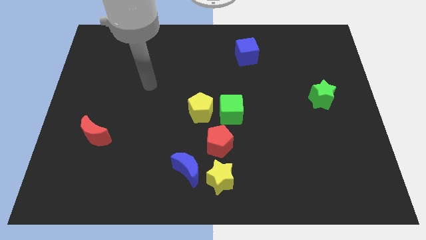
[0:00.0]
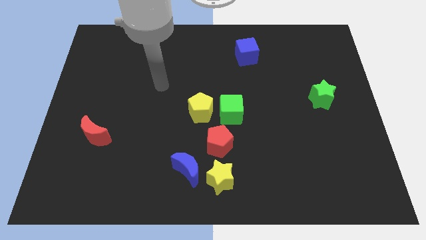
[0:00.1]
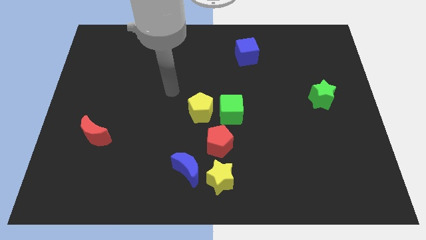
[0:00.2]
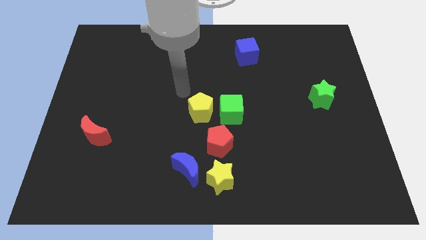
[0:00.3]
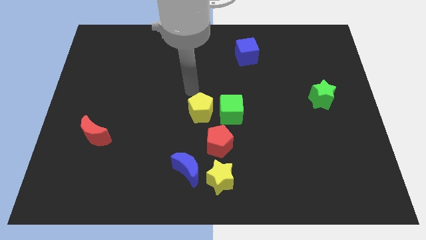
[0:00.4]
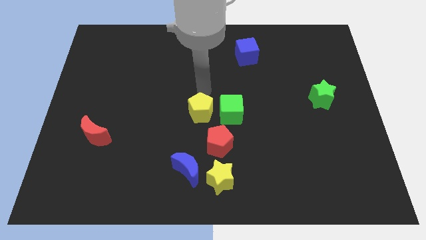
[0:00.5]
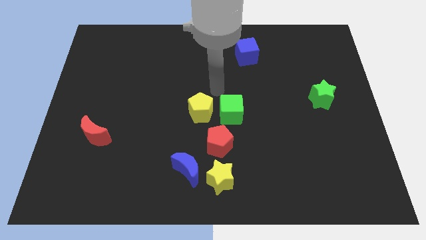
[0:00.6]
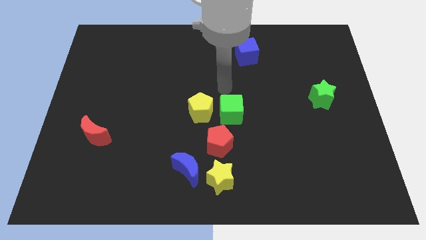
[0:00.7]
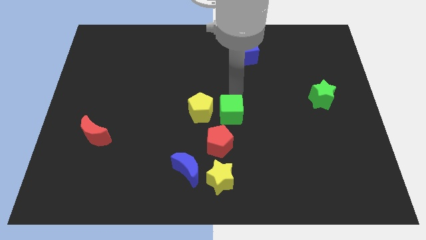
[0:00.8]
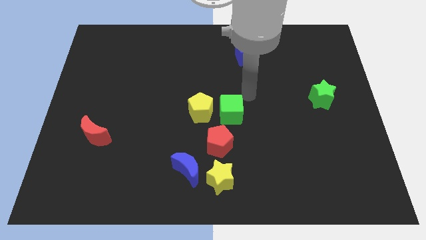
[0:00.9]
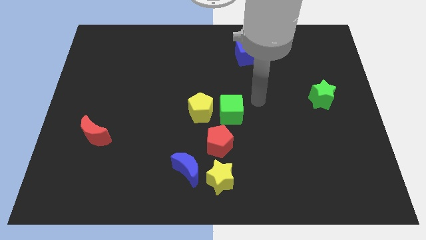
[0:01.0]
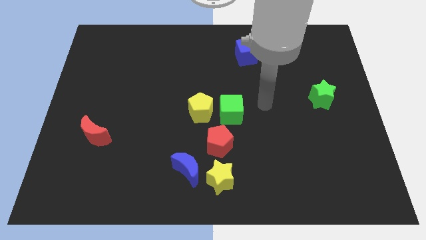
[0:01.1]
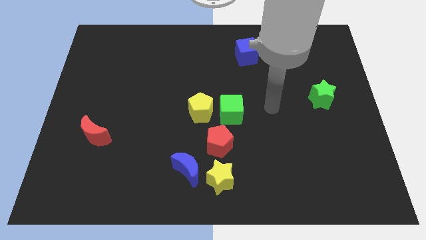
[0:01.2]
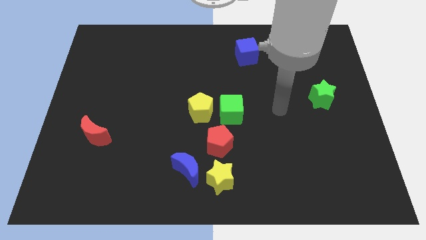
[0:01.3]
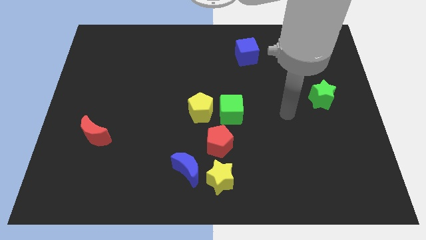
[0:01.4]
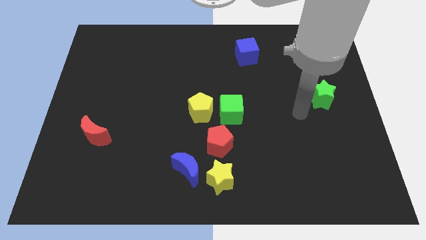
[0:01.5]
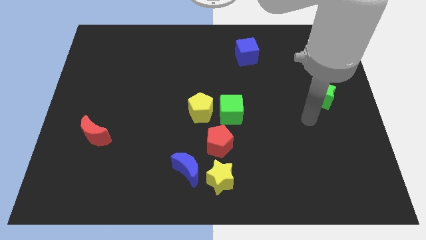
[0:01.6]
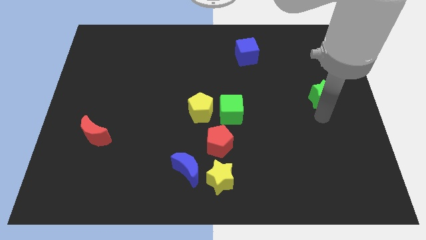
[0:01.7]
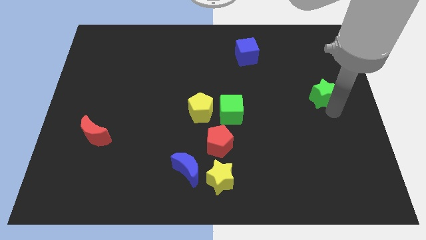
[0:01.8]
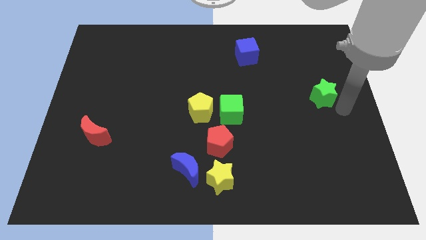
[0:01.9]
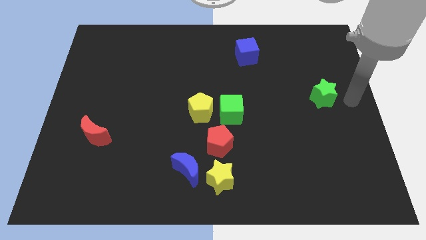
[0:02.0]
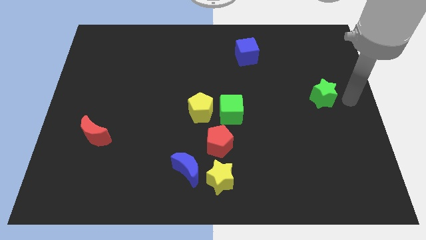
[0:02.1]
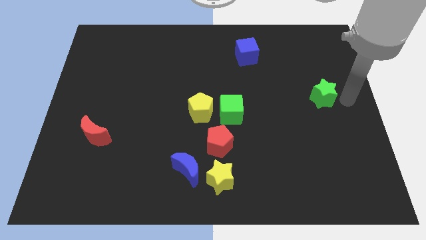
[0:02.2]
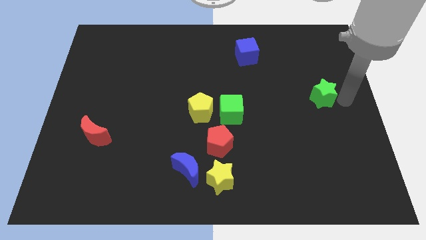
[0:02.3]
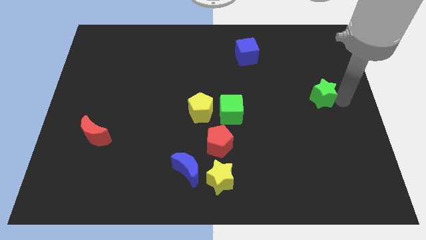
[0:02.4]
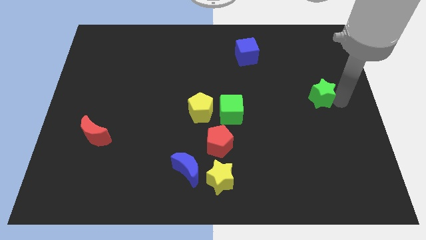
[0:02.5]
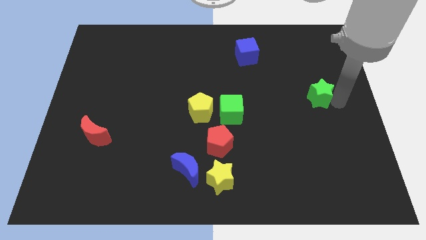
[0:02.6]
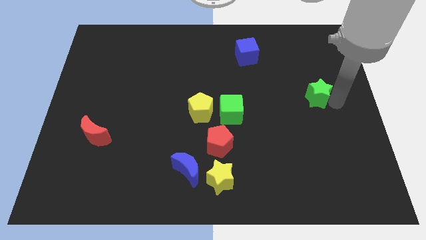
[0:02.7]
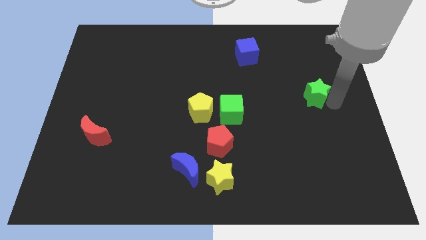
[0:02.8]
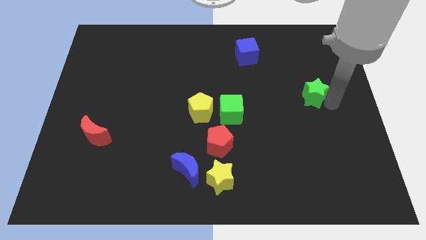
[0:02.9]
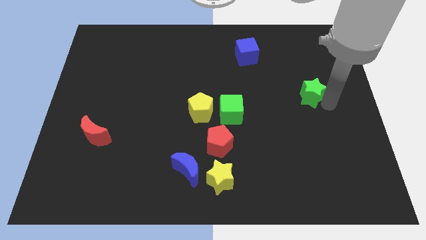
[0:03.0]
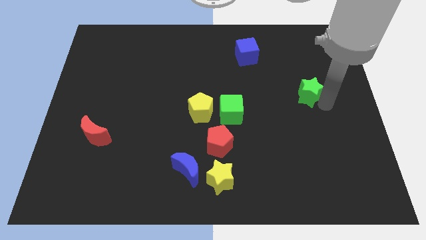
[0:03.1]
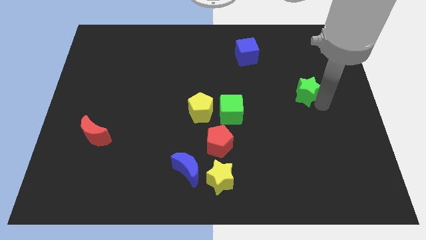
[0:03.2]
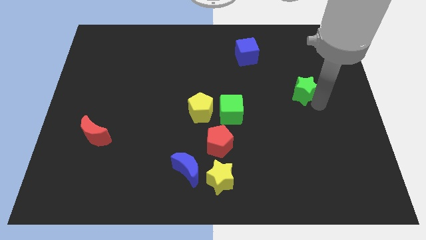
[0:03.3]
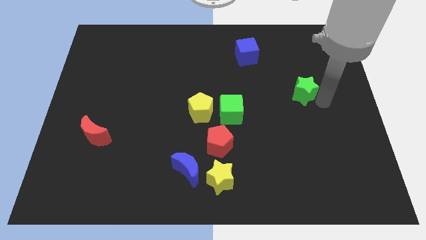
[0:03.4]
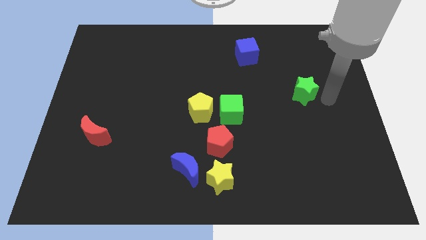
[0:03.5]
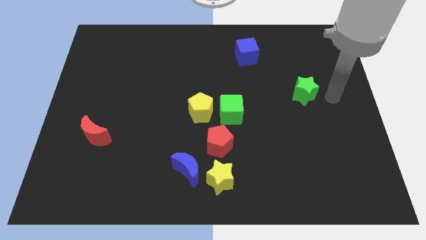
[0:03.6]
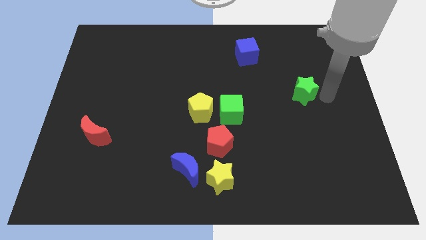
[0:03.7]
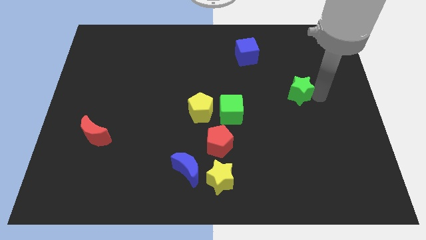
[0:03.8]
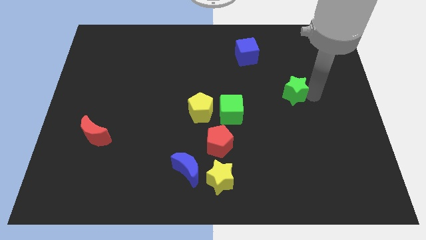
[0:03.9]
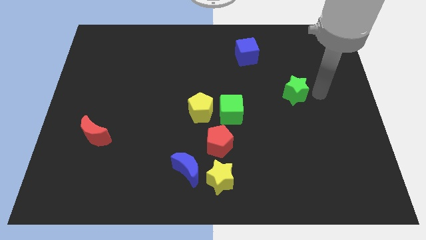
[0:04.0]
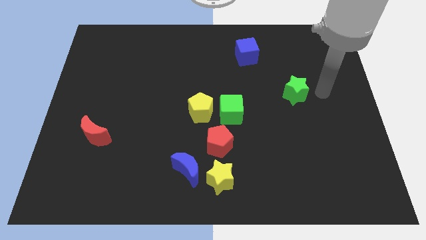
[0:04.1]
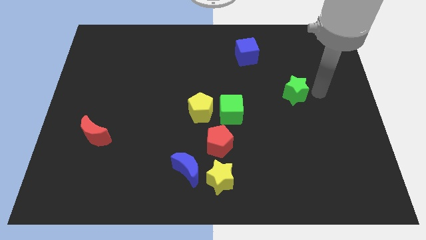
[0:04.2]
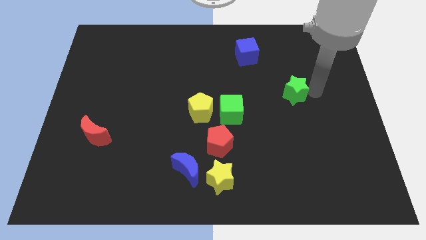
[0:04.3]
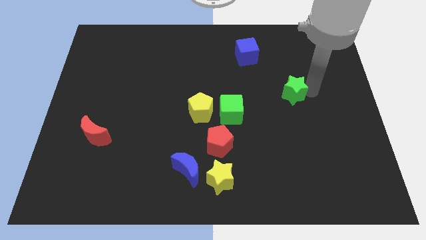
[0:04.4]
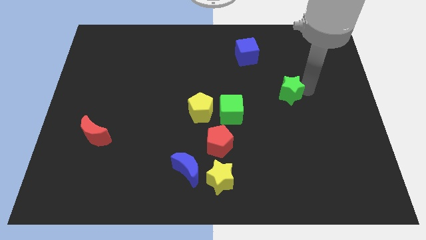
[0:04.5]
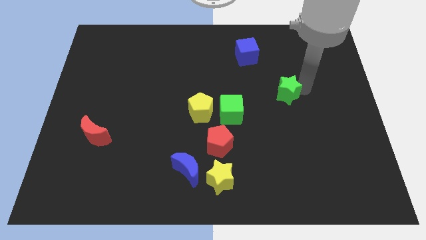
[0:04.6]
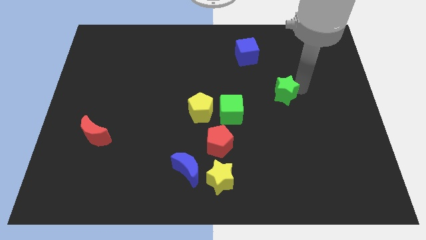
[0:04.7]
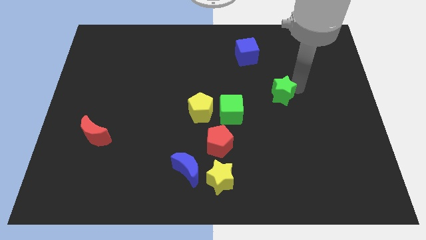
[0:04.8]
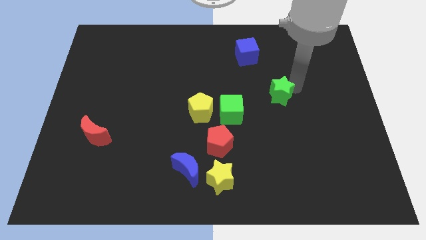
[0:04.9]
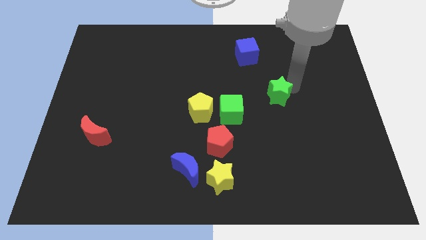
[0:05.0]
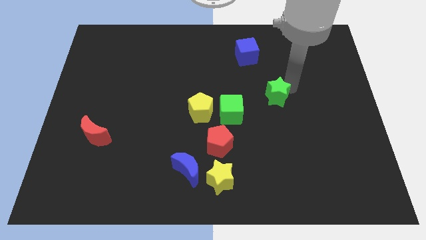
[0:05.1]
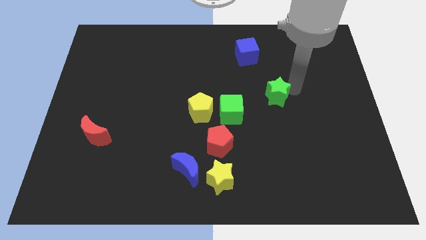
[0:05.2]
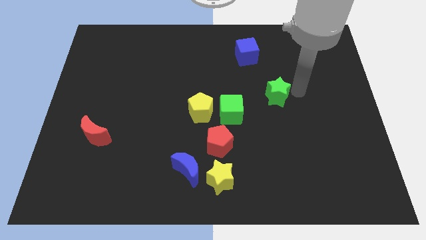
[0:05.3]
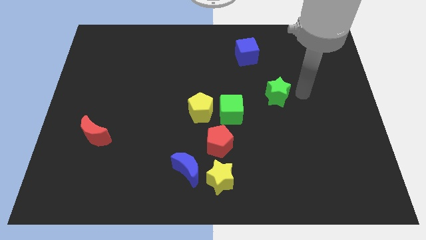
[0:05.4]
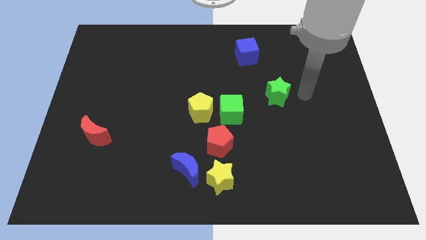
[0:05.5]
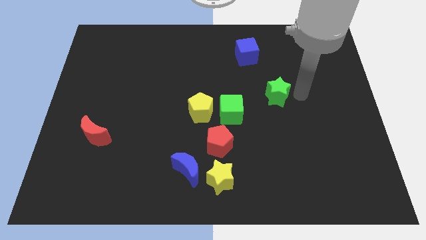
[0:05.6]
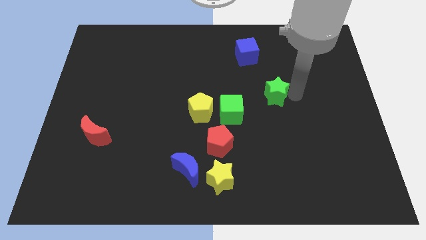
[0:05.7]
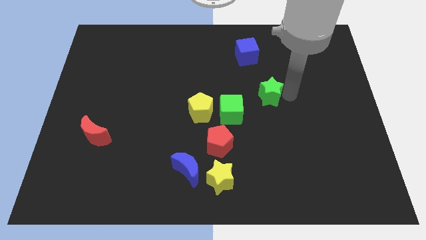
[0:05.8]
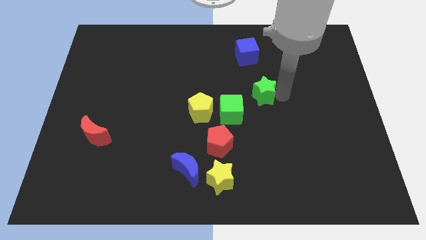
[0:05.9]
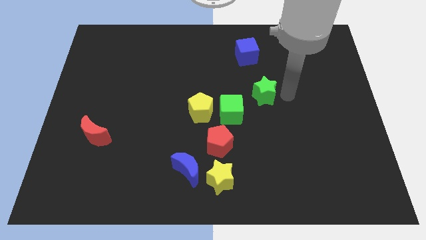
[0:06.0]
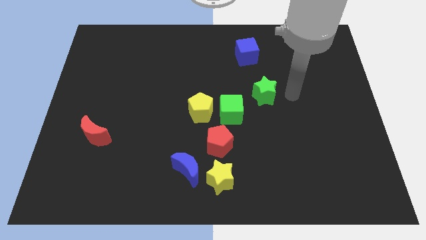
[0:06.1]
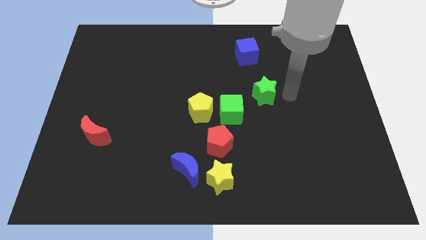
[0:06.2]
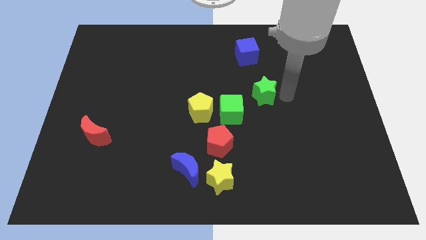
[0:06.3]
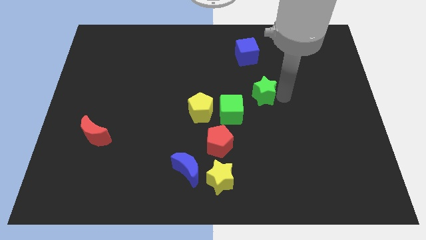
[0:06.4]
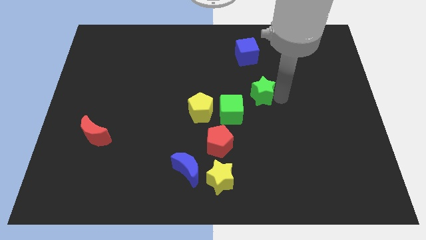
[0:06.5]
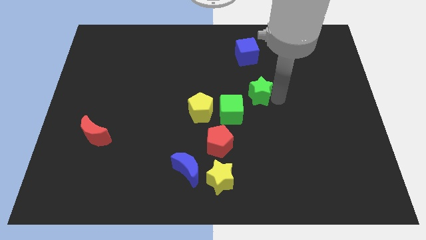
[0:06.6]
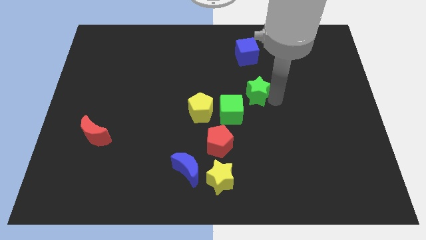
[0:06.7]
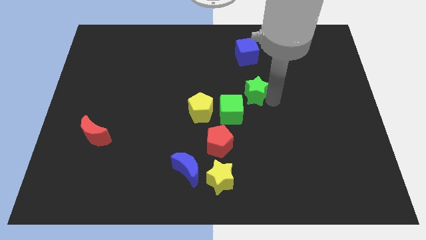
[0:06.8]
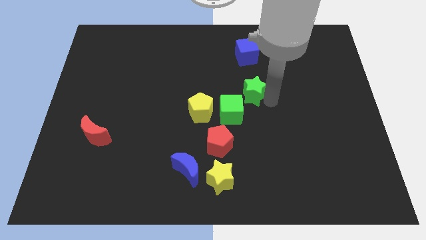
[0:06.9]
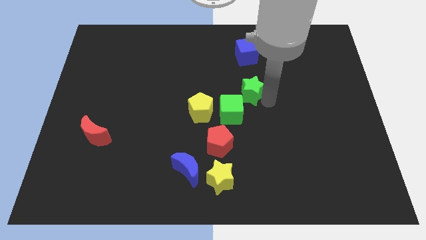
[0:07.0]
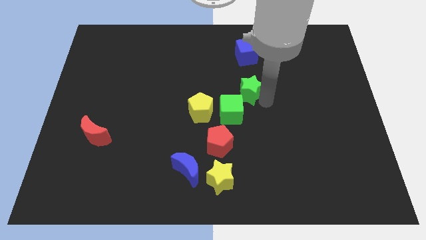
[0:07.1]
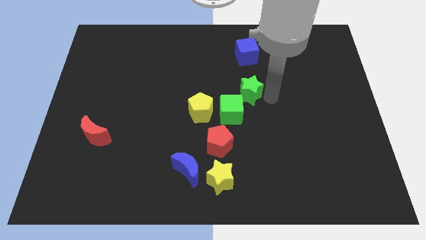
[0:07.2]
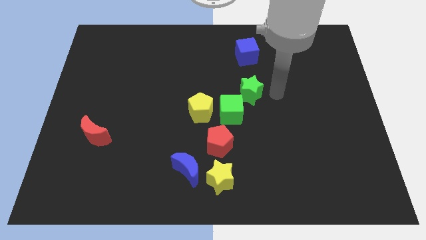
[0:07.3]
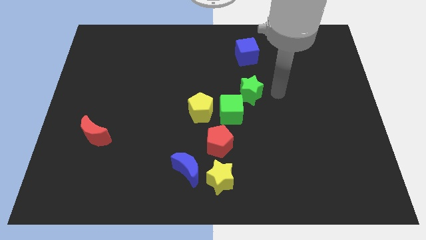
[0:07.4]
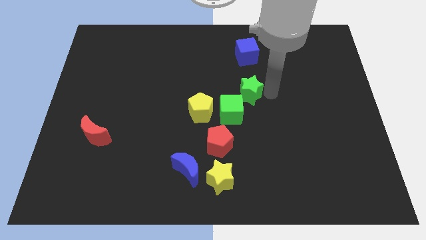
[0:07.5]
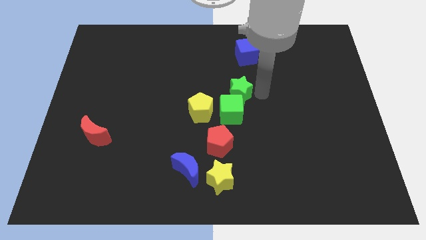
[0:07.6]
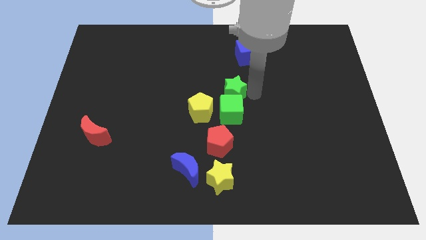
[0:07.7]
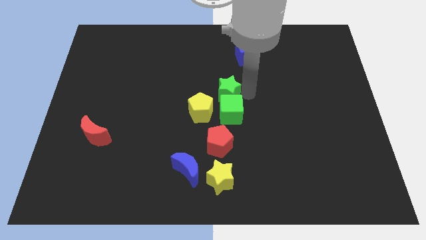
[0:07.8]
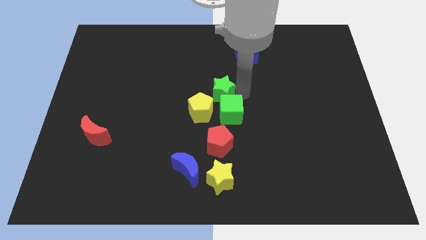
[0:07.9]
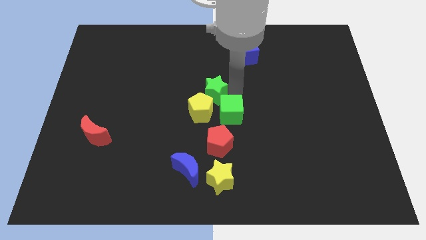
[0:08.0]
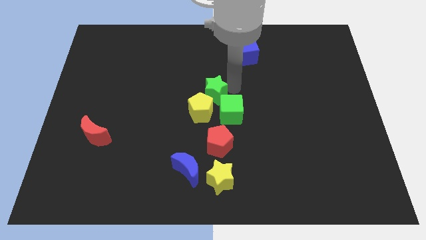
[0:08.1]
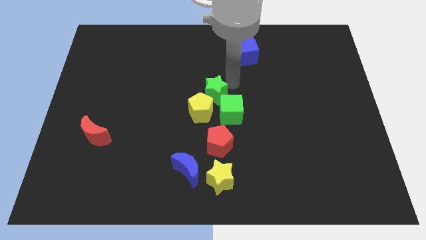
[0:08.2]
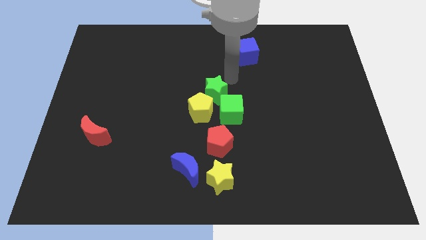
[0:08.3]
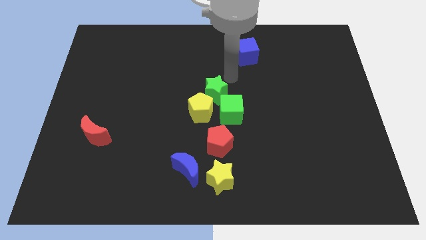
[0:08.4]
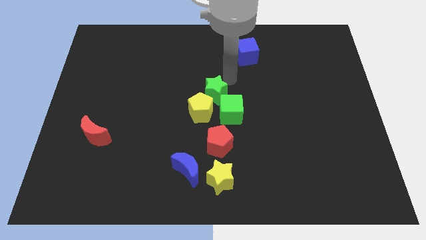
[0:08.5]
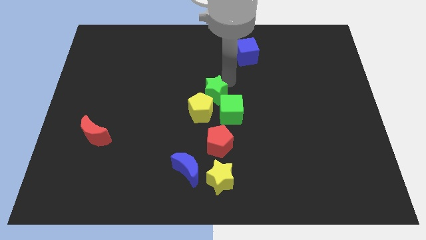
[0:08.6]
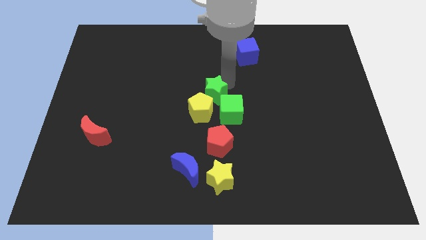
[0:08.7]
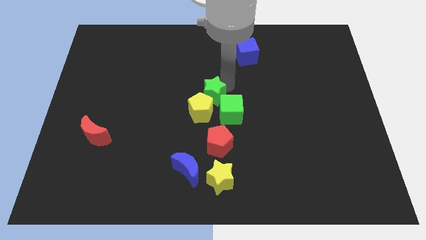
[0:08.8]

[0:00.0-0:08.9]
push the green star towards the yellow pentagon
